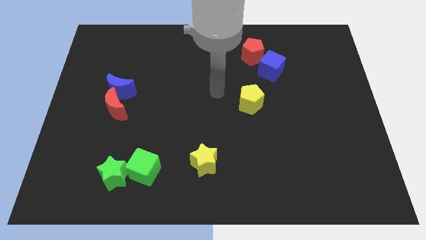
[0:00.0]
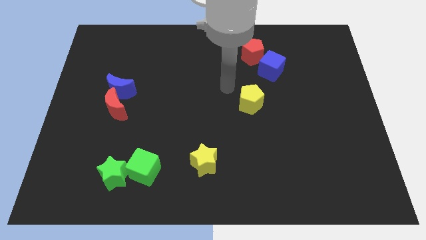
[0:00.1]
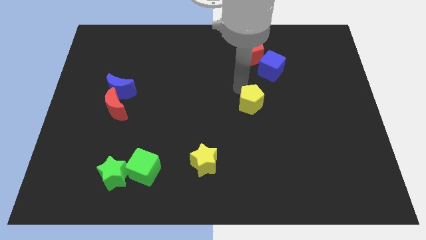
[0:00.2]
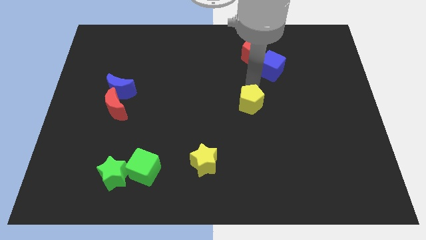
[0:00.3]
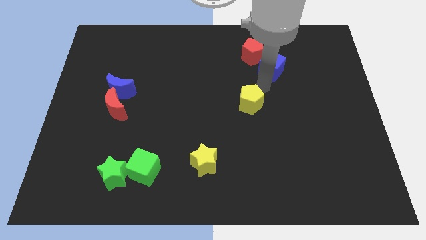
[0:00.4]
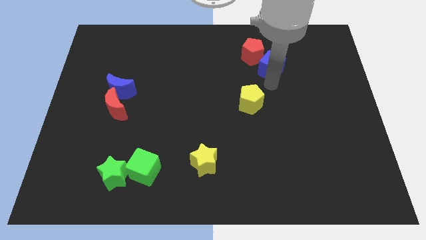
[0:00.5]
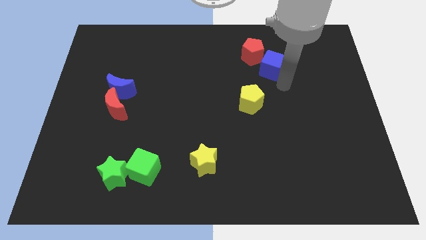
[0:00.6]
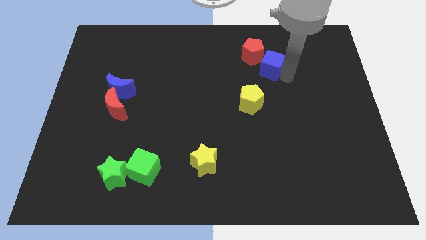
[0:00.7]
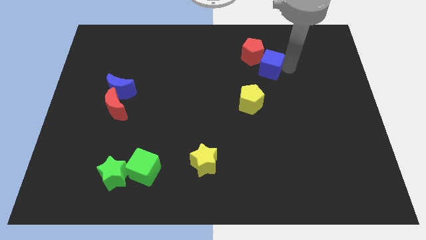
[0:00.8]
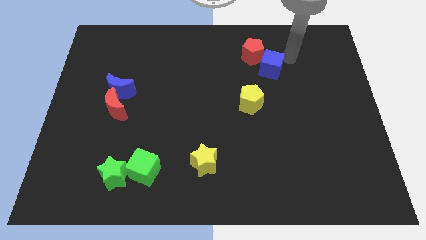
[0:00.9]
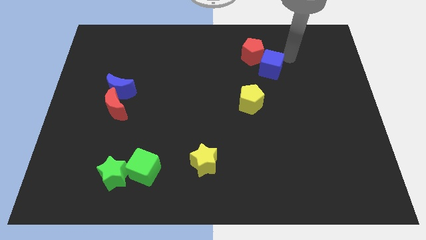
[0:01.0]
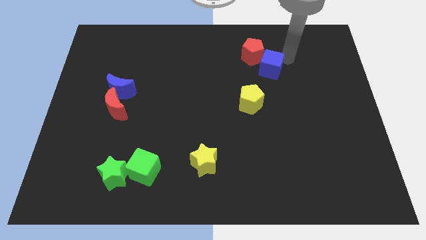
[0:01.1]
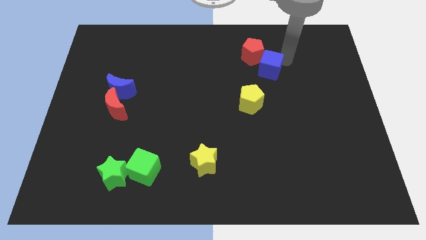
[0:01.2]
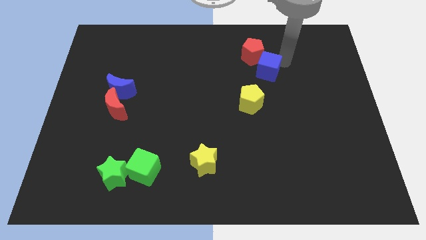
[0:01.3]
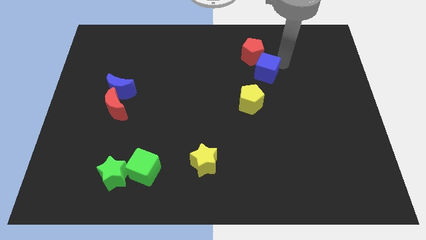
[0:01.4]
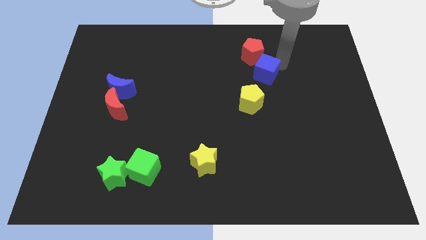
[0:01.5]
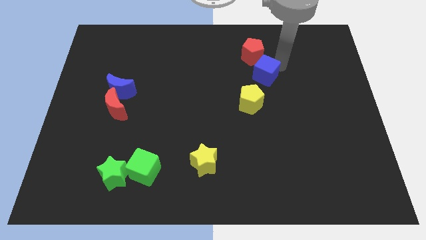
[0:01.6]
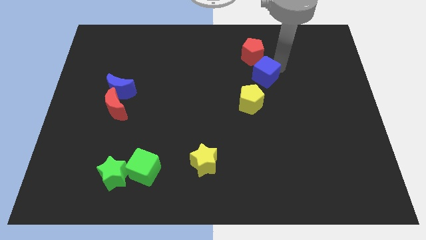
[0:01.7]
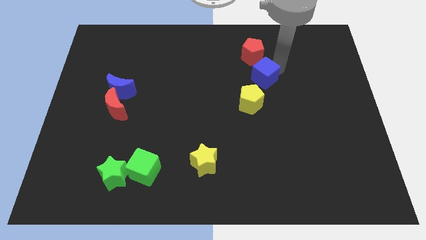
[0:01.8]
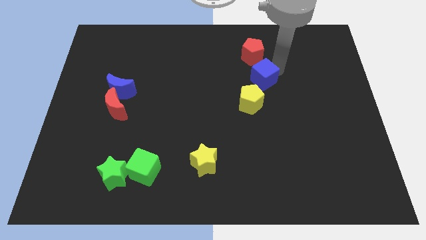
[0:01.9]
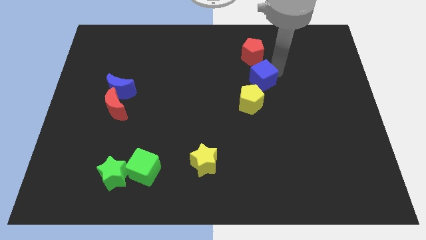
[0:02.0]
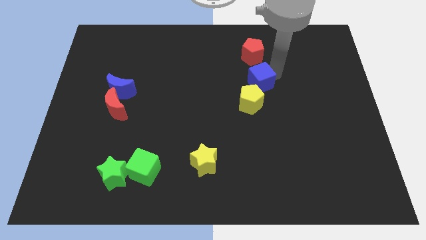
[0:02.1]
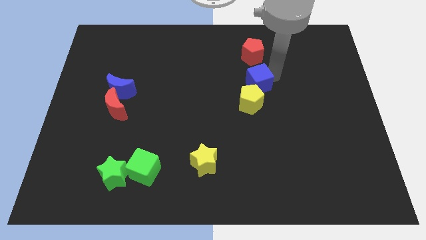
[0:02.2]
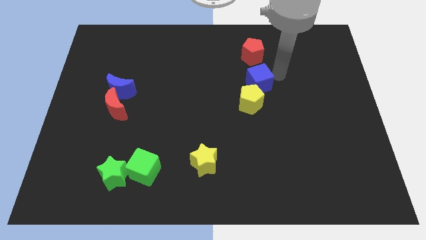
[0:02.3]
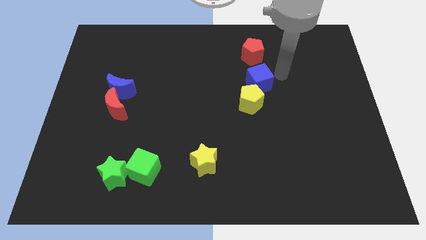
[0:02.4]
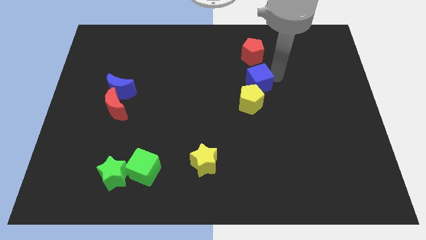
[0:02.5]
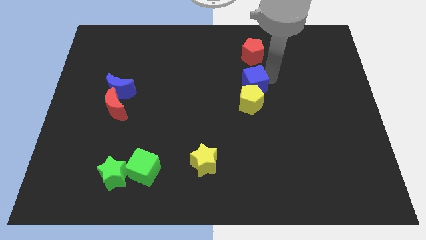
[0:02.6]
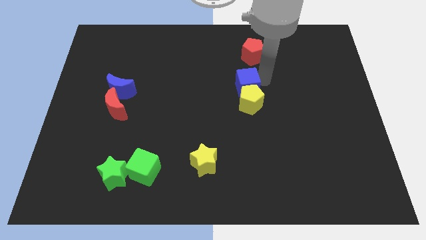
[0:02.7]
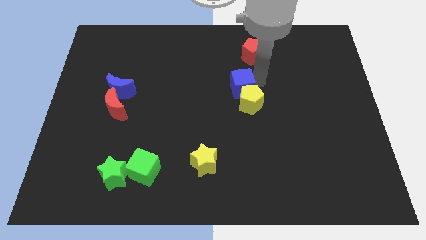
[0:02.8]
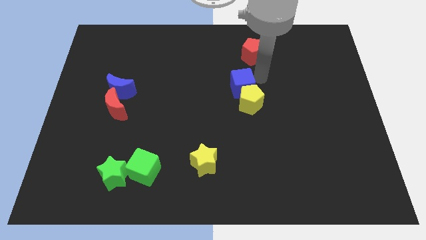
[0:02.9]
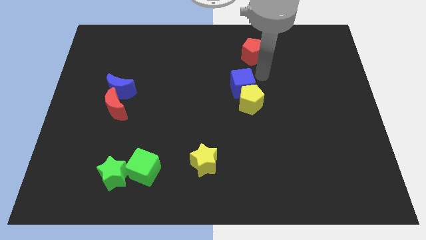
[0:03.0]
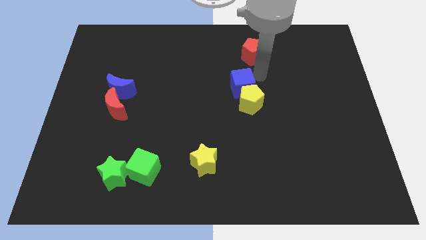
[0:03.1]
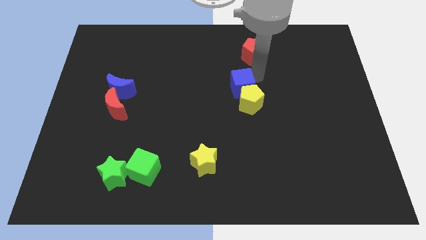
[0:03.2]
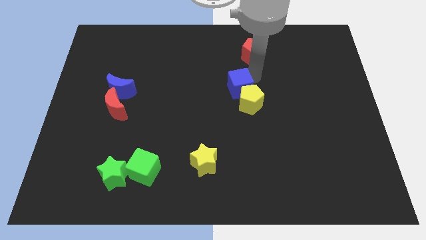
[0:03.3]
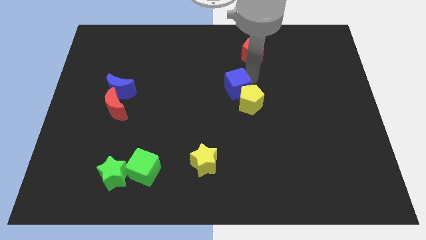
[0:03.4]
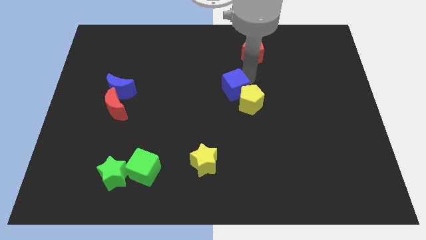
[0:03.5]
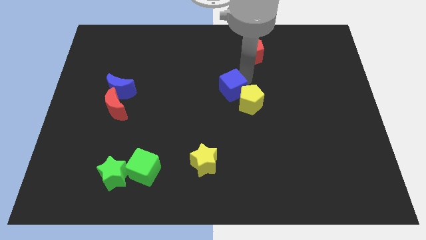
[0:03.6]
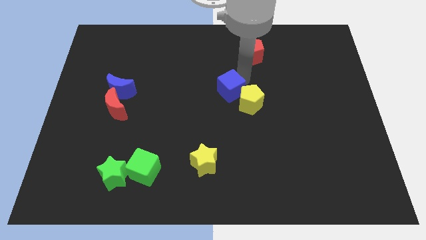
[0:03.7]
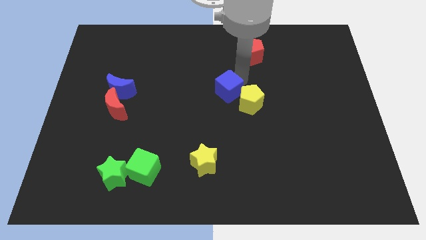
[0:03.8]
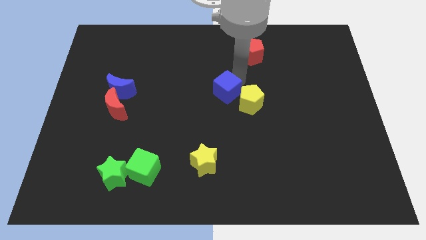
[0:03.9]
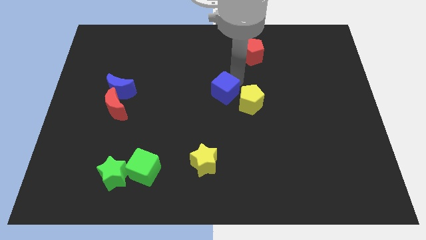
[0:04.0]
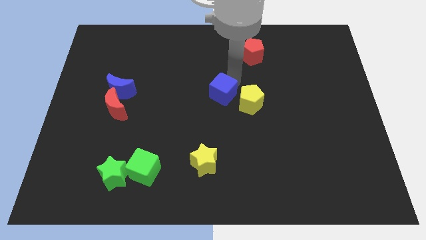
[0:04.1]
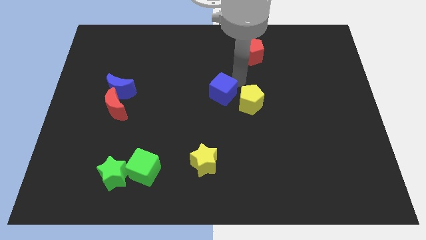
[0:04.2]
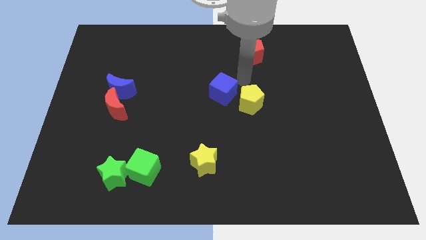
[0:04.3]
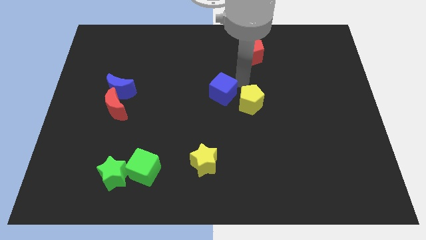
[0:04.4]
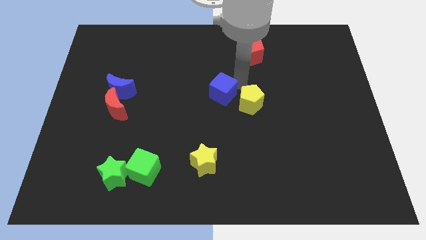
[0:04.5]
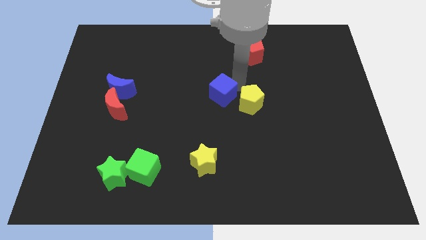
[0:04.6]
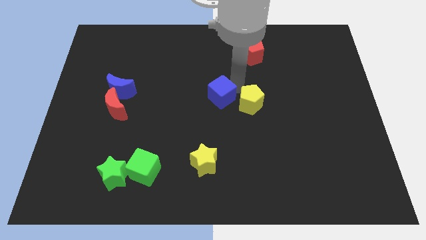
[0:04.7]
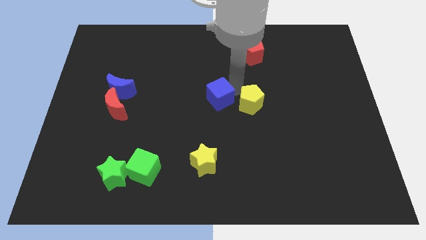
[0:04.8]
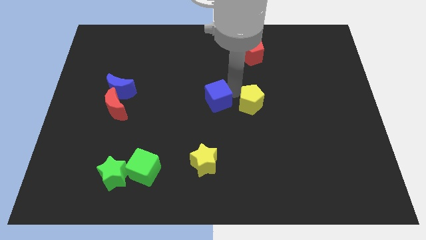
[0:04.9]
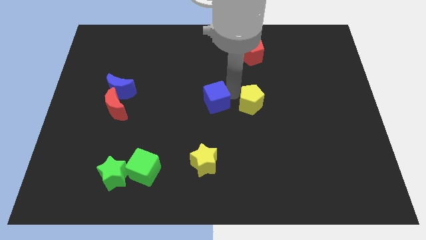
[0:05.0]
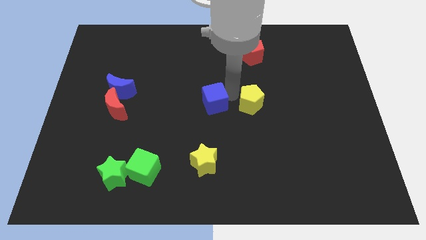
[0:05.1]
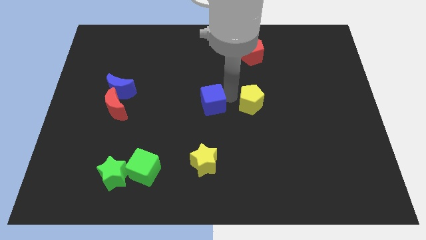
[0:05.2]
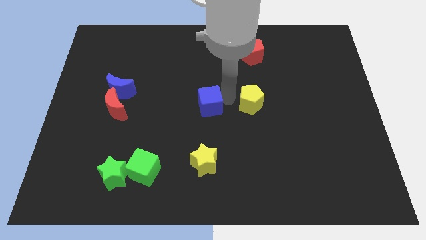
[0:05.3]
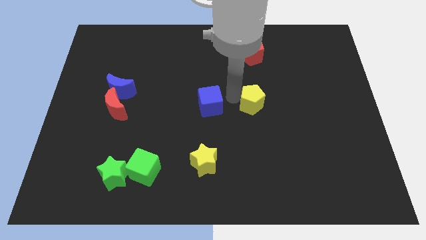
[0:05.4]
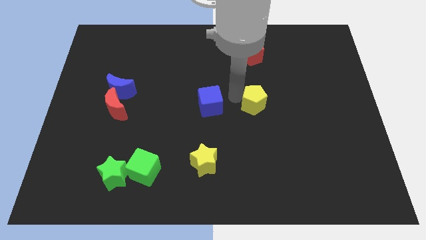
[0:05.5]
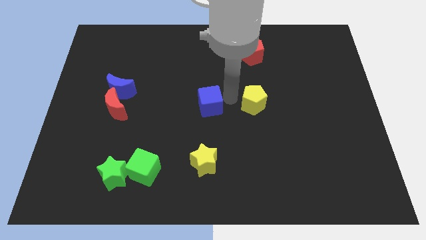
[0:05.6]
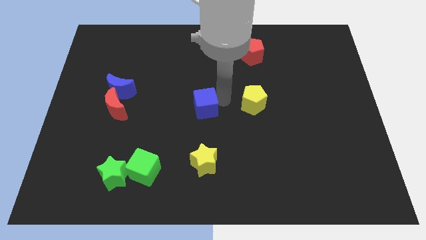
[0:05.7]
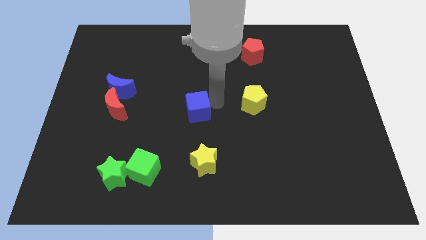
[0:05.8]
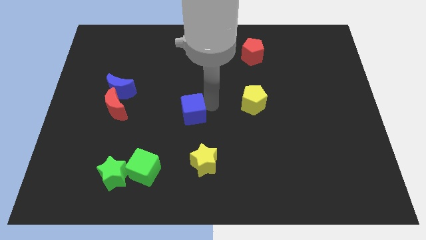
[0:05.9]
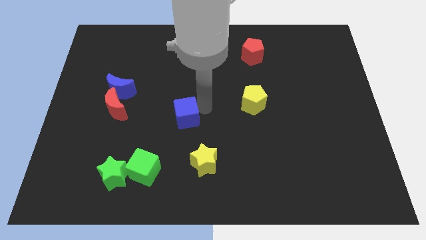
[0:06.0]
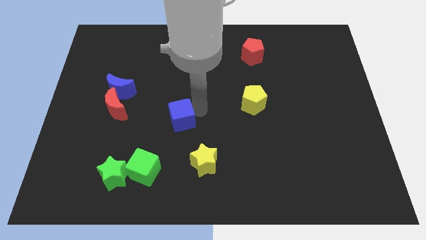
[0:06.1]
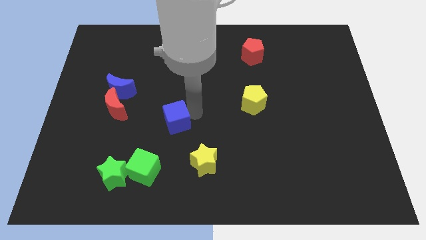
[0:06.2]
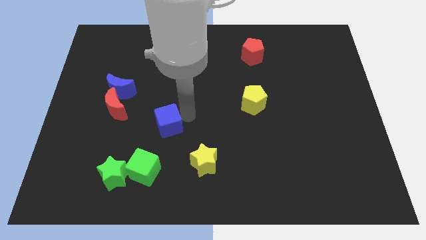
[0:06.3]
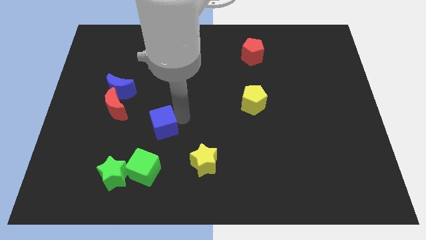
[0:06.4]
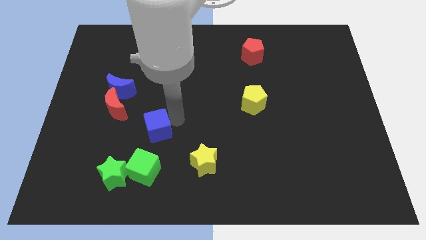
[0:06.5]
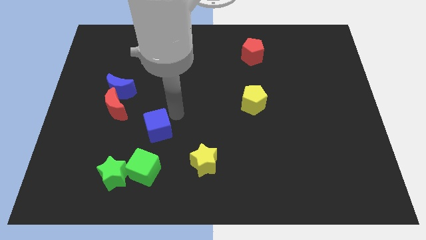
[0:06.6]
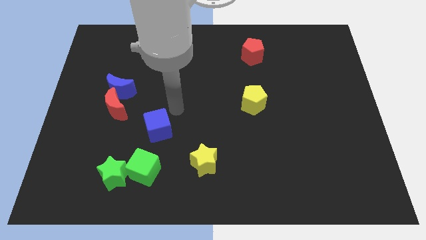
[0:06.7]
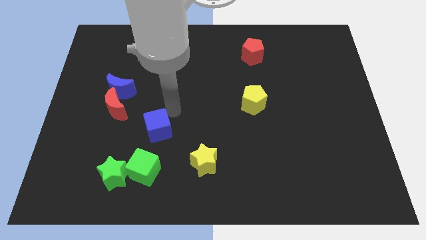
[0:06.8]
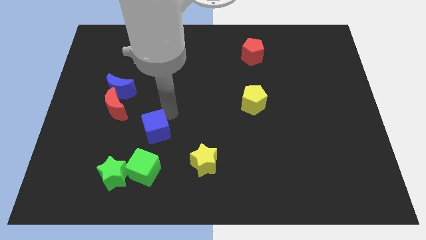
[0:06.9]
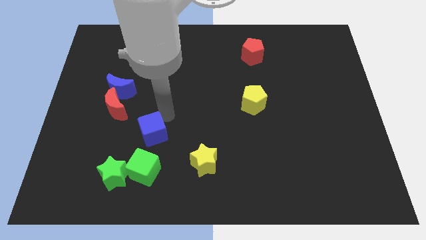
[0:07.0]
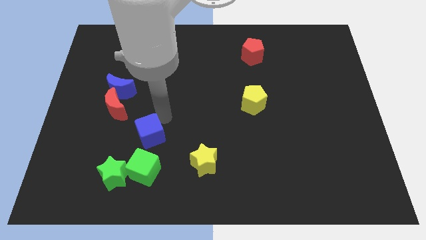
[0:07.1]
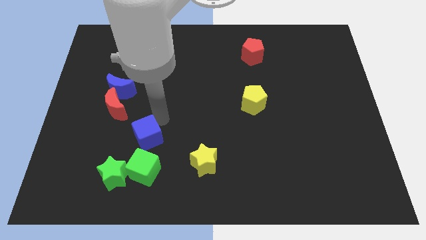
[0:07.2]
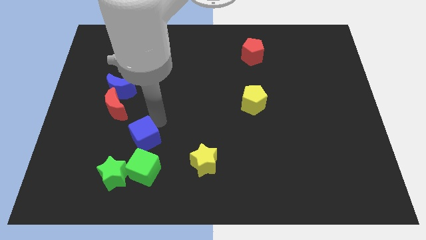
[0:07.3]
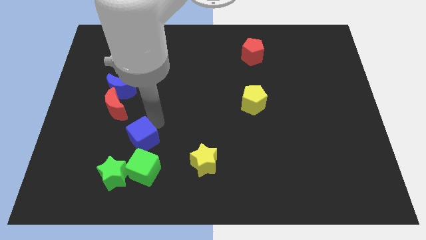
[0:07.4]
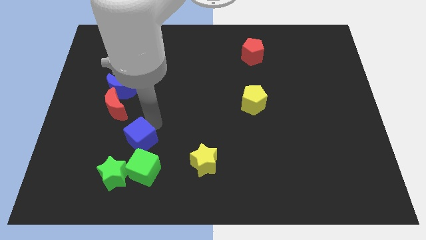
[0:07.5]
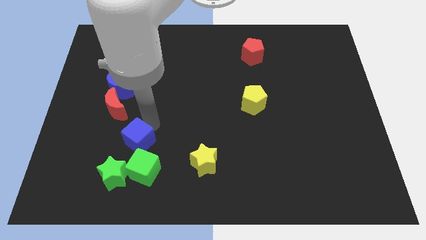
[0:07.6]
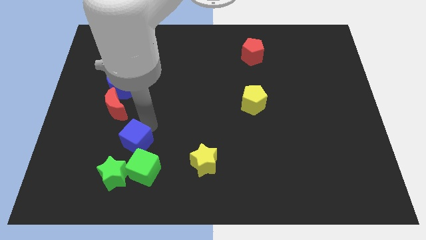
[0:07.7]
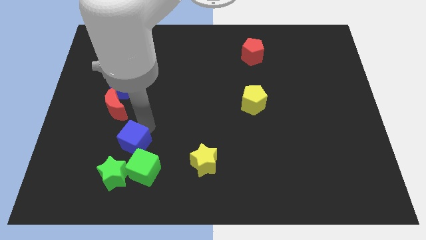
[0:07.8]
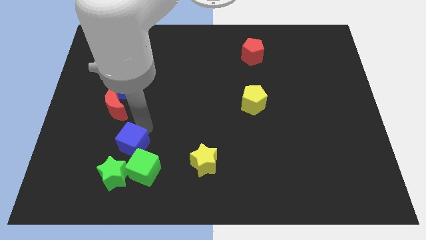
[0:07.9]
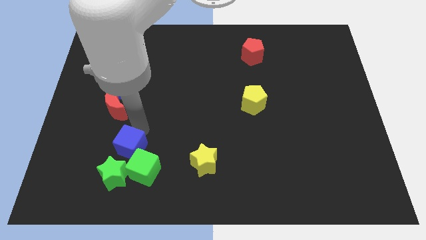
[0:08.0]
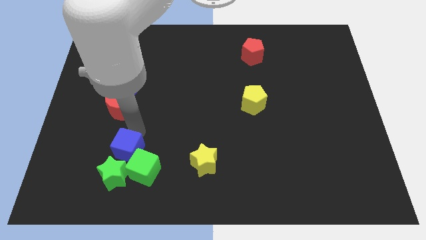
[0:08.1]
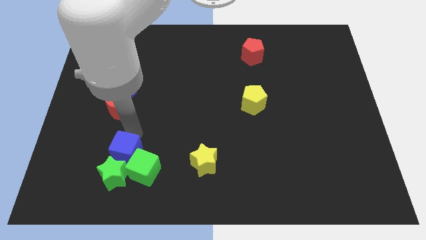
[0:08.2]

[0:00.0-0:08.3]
slide the blue cube next to the green star
